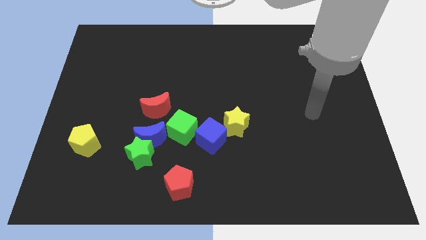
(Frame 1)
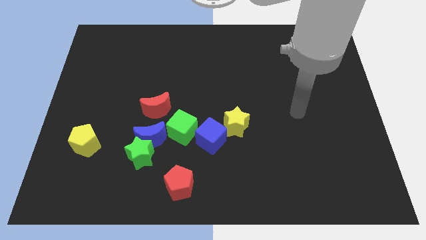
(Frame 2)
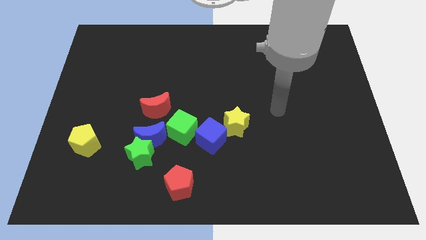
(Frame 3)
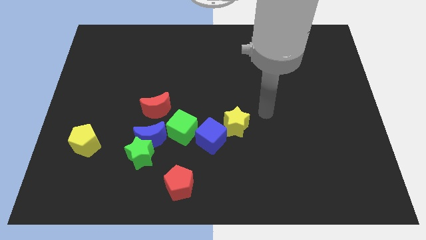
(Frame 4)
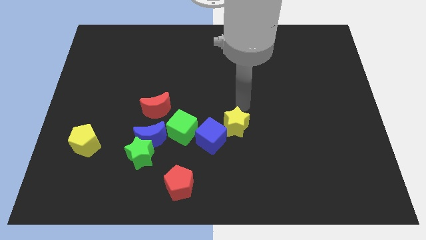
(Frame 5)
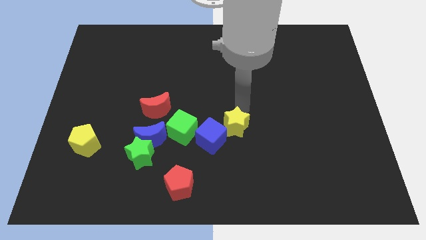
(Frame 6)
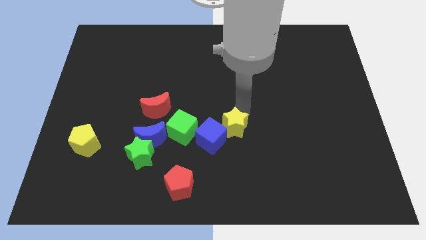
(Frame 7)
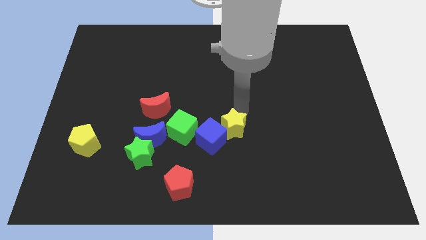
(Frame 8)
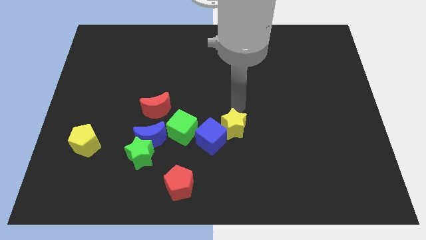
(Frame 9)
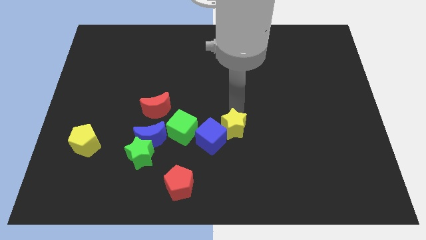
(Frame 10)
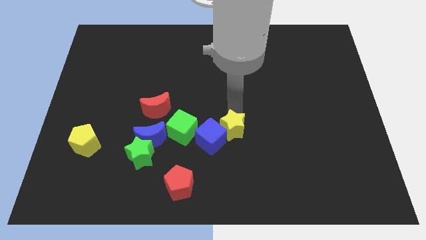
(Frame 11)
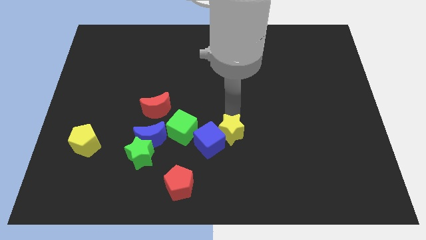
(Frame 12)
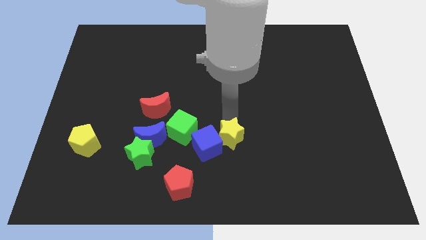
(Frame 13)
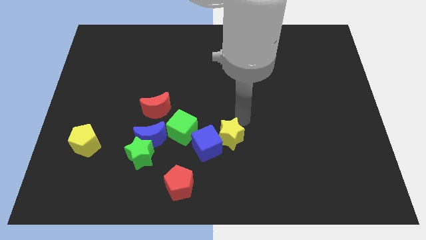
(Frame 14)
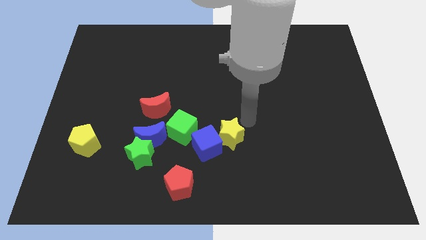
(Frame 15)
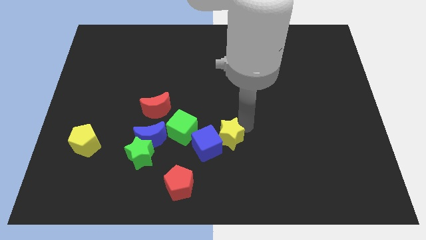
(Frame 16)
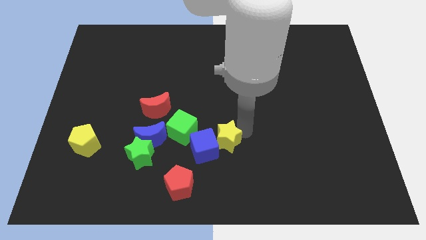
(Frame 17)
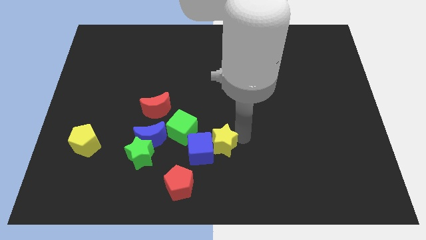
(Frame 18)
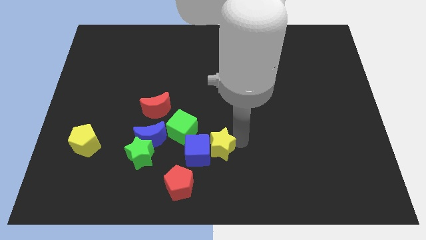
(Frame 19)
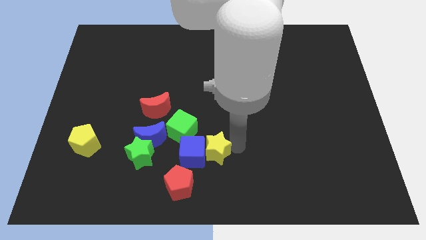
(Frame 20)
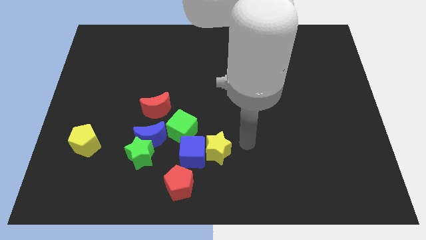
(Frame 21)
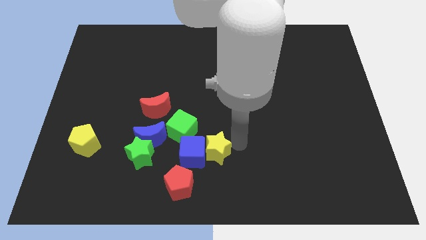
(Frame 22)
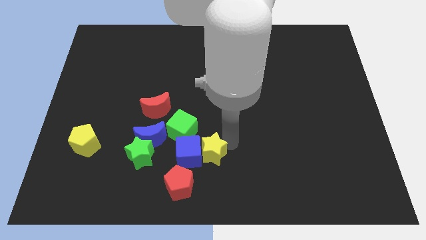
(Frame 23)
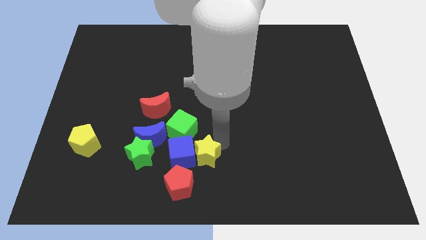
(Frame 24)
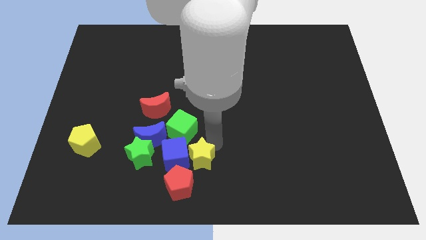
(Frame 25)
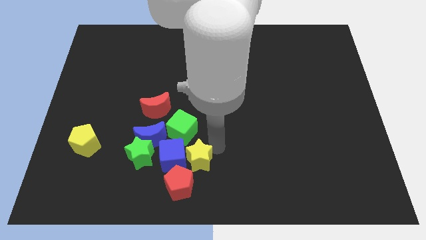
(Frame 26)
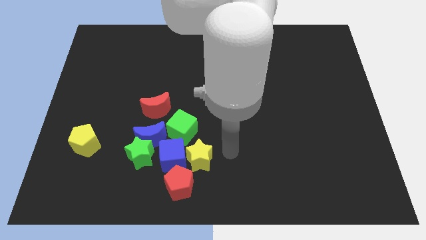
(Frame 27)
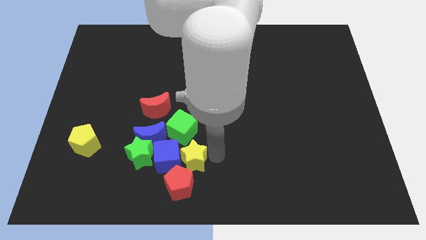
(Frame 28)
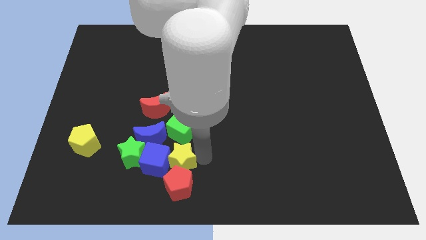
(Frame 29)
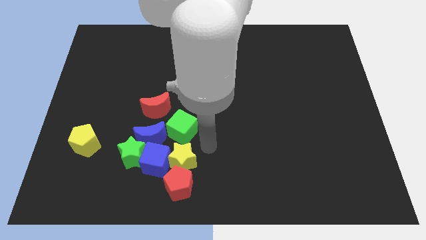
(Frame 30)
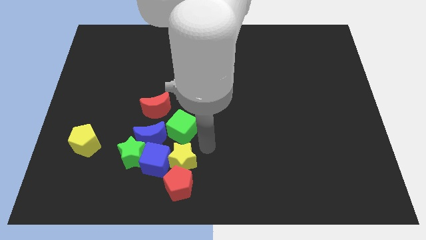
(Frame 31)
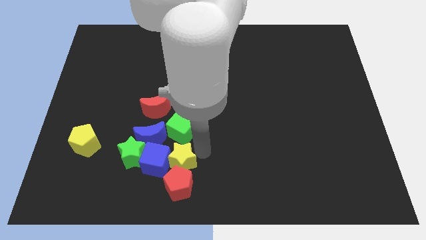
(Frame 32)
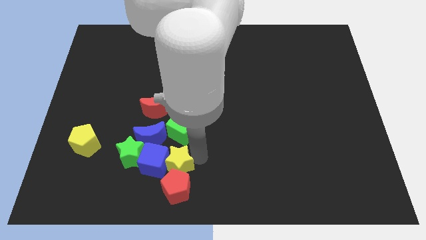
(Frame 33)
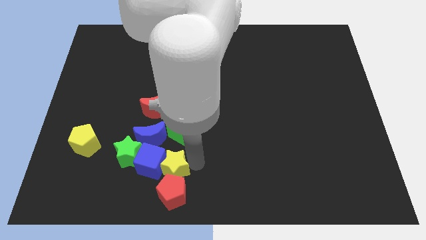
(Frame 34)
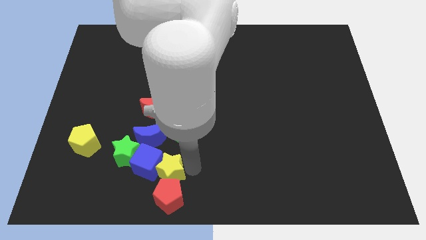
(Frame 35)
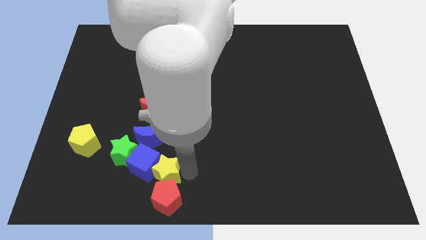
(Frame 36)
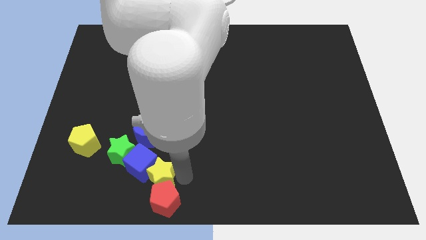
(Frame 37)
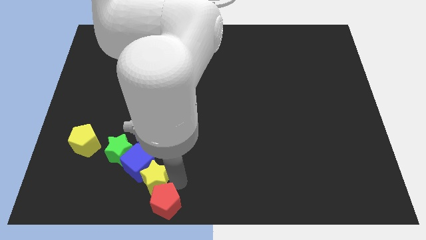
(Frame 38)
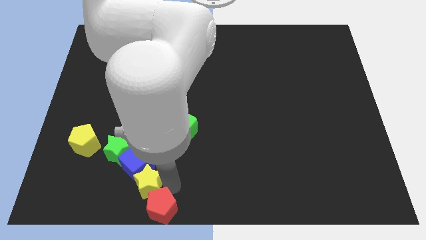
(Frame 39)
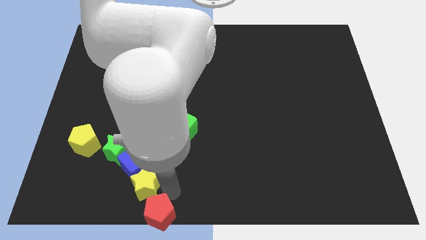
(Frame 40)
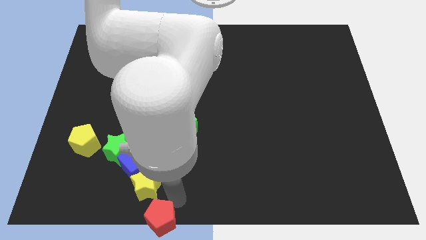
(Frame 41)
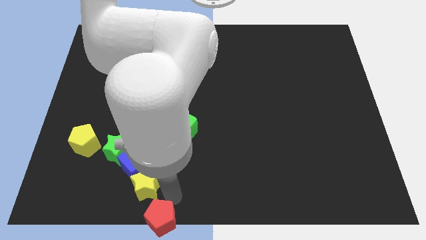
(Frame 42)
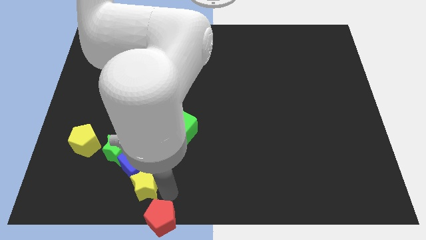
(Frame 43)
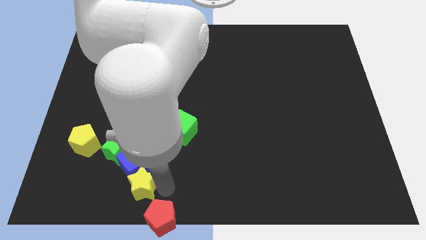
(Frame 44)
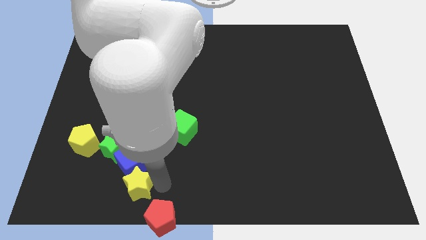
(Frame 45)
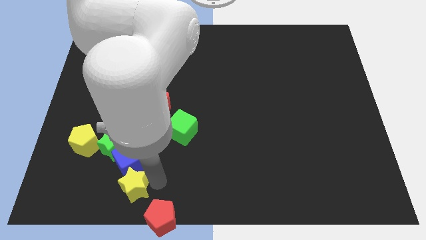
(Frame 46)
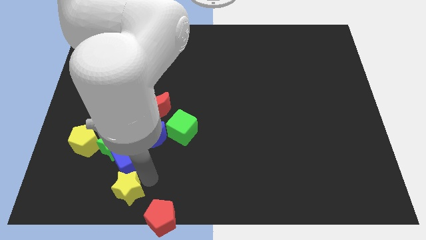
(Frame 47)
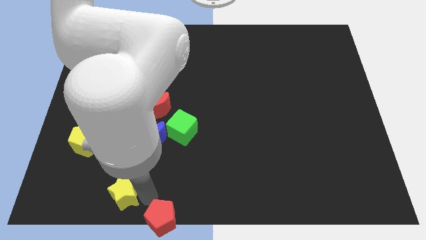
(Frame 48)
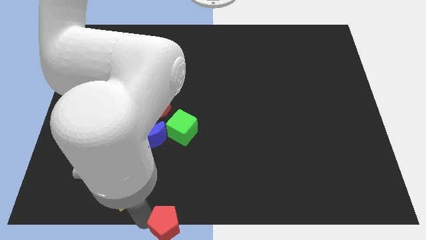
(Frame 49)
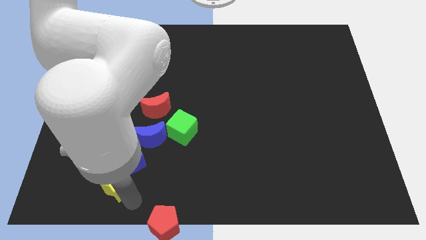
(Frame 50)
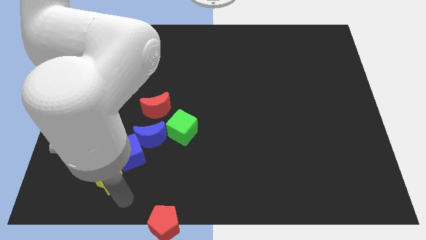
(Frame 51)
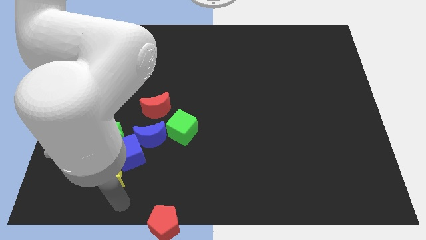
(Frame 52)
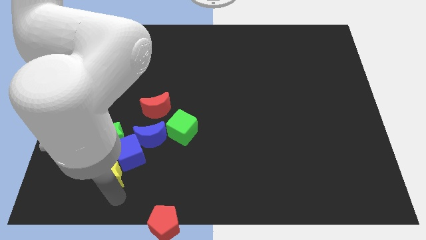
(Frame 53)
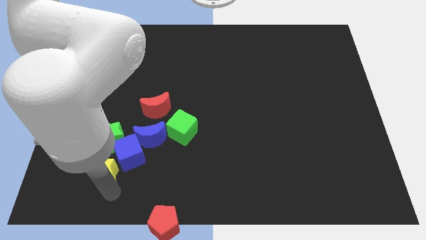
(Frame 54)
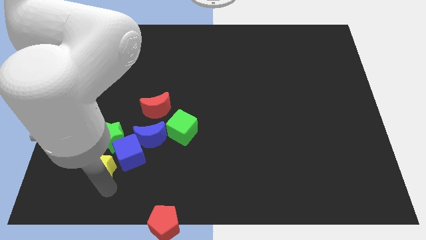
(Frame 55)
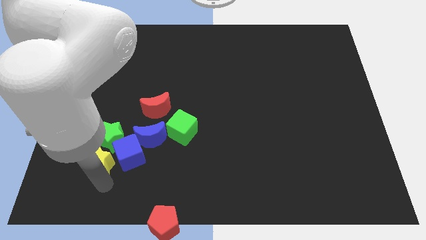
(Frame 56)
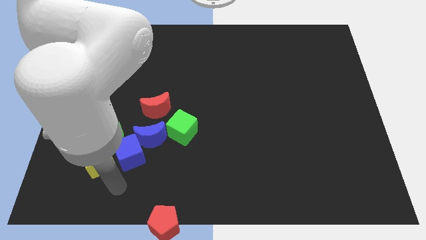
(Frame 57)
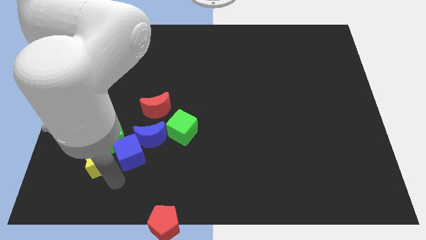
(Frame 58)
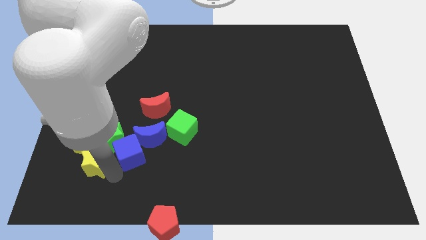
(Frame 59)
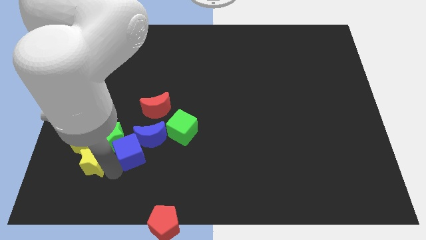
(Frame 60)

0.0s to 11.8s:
push the yellow star next to the yellow pentagon
